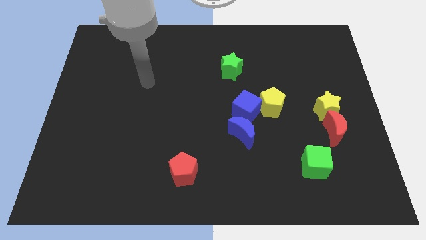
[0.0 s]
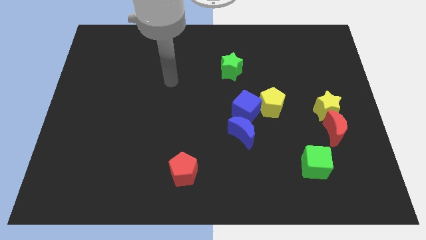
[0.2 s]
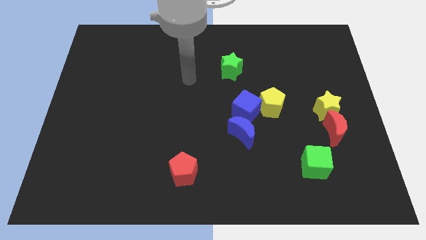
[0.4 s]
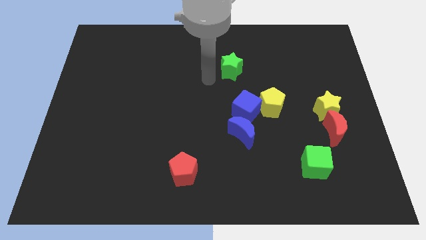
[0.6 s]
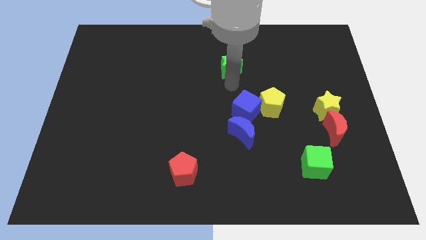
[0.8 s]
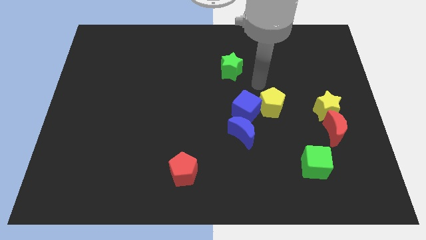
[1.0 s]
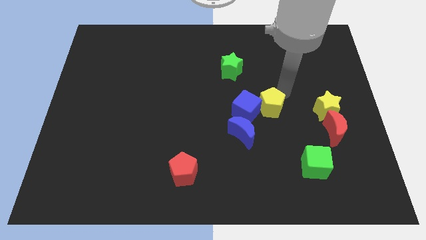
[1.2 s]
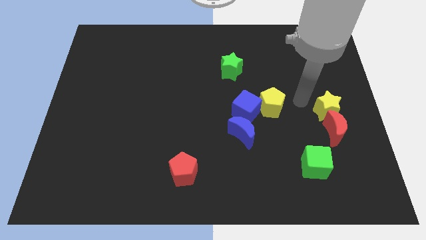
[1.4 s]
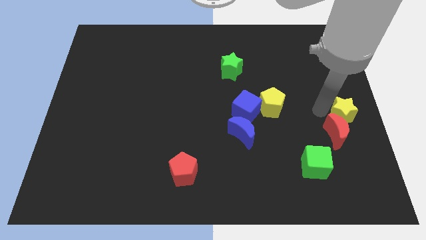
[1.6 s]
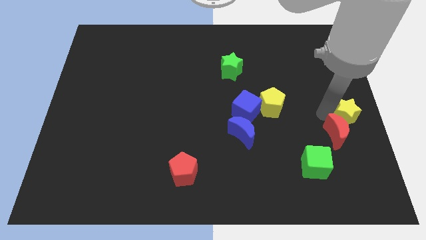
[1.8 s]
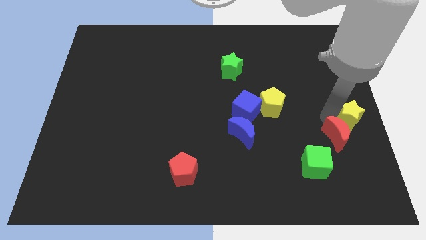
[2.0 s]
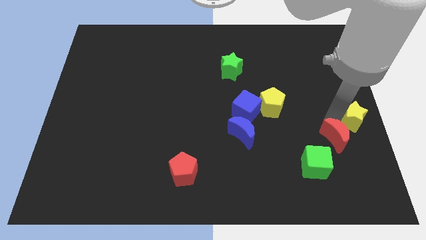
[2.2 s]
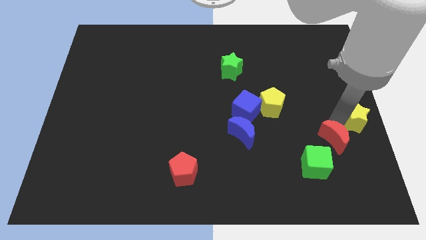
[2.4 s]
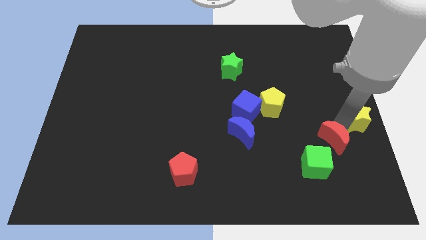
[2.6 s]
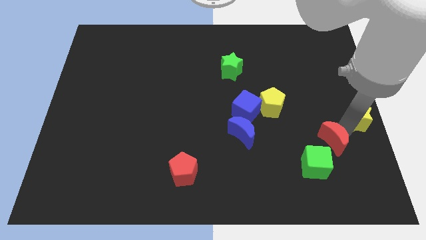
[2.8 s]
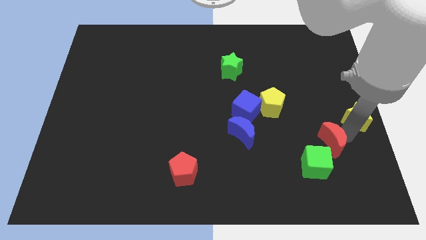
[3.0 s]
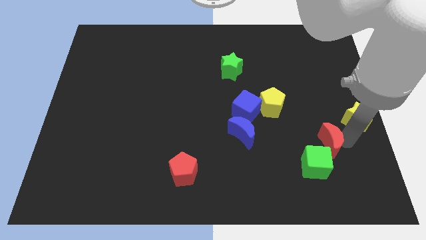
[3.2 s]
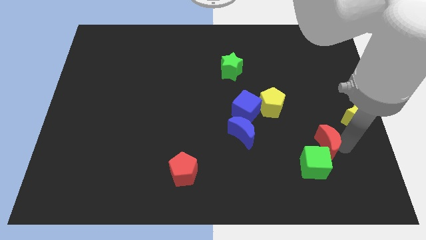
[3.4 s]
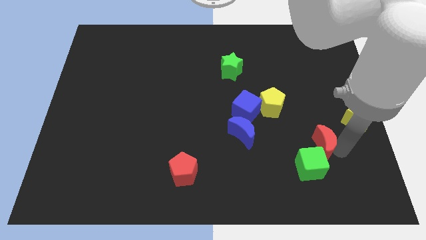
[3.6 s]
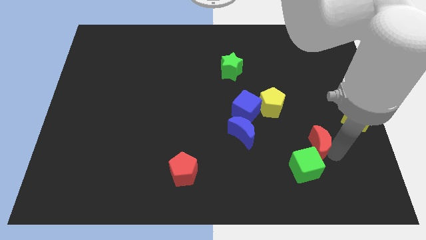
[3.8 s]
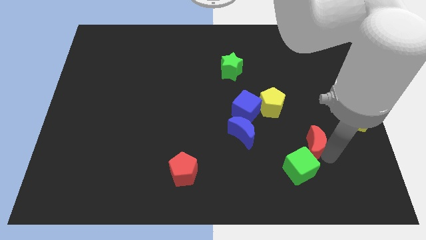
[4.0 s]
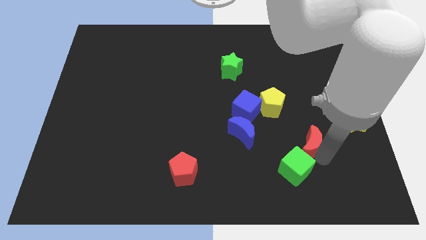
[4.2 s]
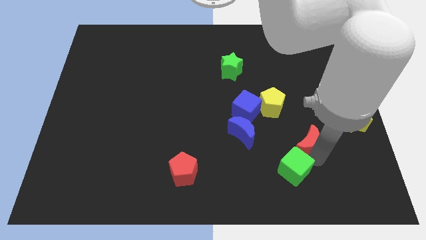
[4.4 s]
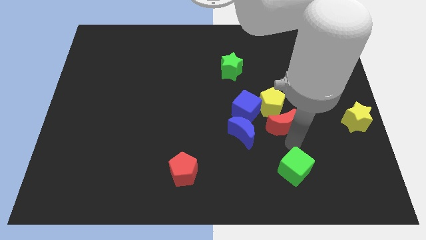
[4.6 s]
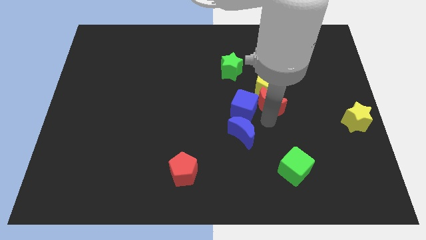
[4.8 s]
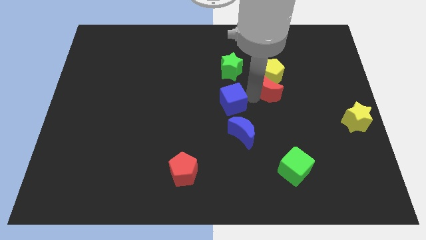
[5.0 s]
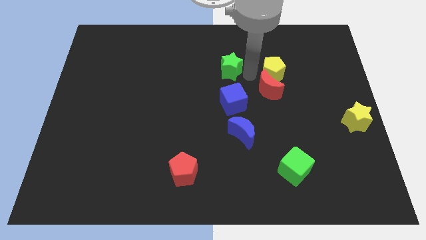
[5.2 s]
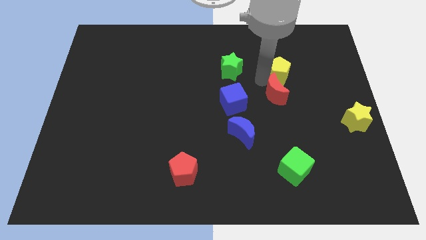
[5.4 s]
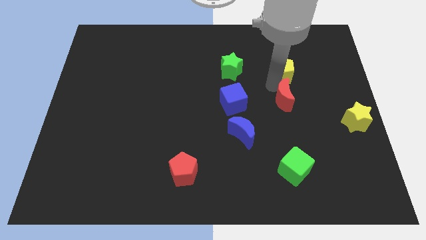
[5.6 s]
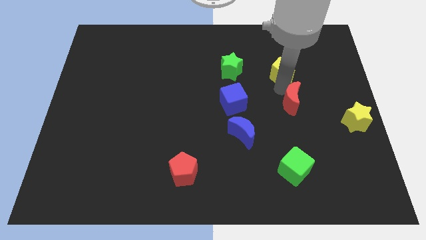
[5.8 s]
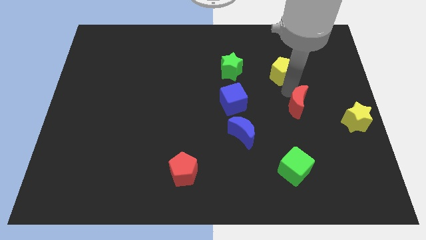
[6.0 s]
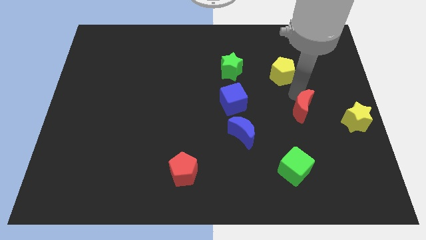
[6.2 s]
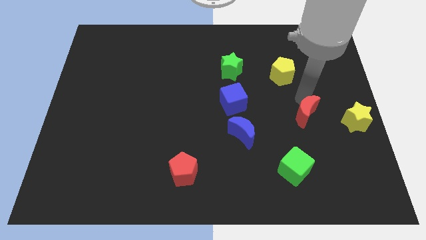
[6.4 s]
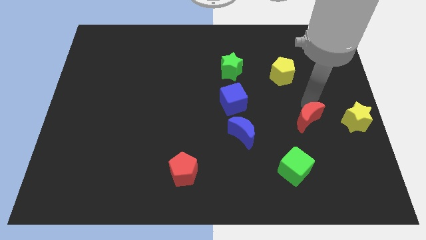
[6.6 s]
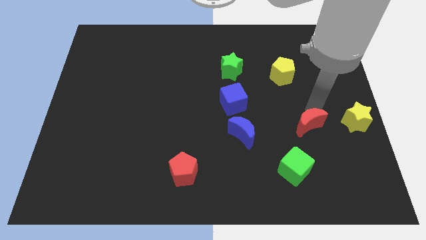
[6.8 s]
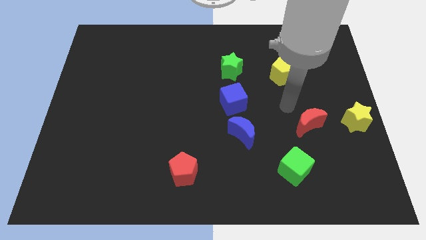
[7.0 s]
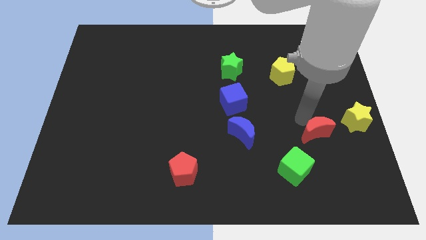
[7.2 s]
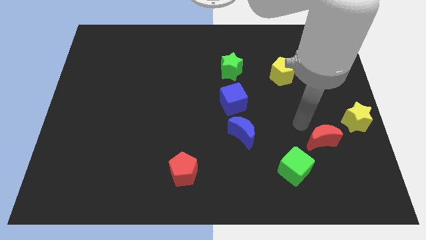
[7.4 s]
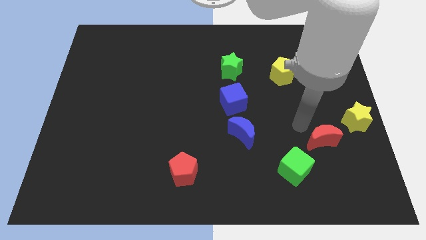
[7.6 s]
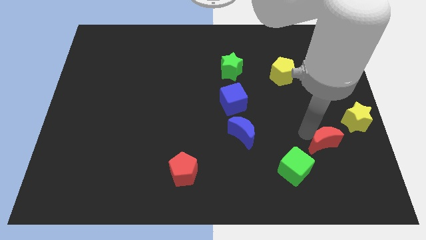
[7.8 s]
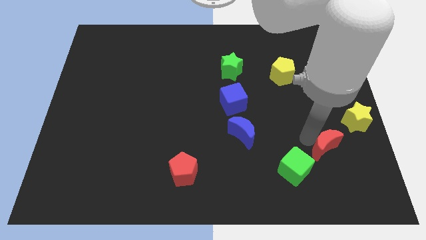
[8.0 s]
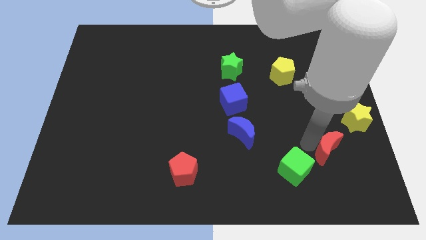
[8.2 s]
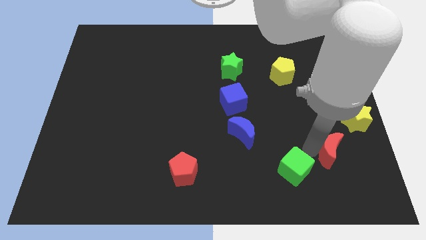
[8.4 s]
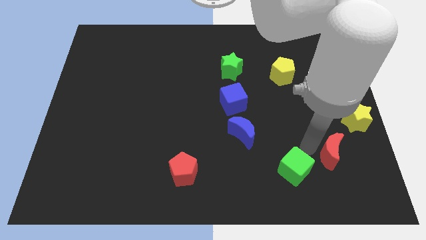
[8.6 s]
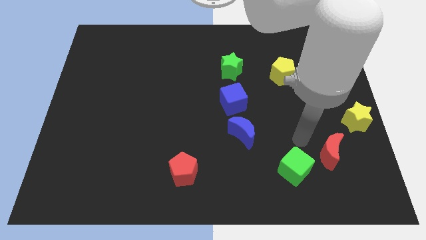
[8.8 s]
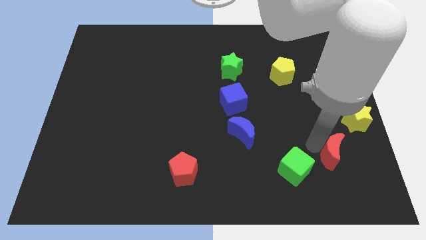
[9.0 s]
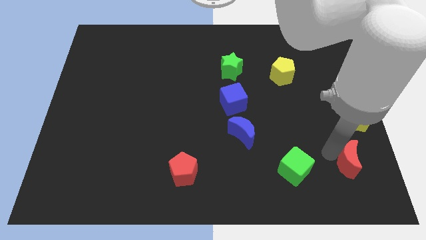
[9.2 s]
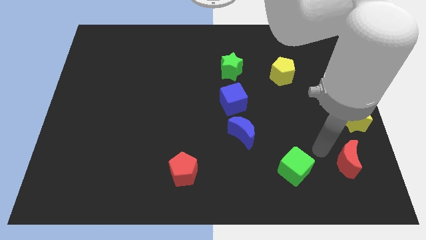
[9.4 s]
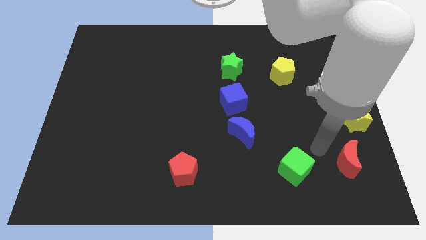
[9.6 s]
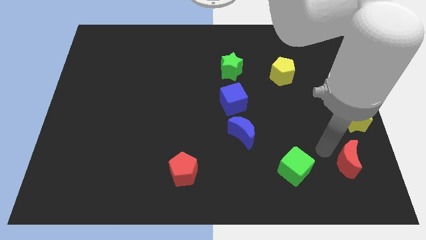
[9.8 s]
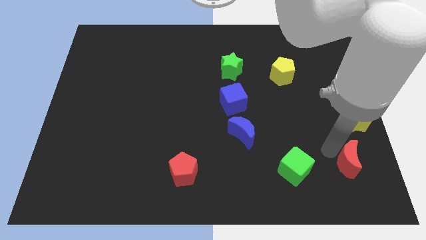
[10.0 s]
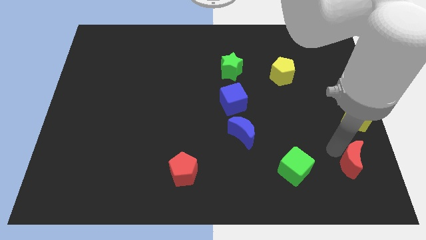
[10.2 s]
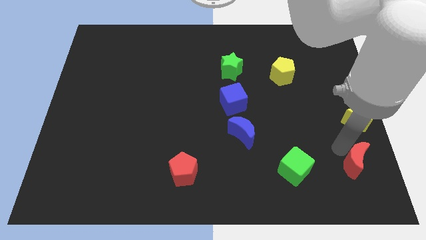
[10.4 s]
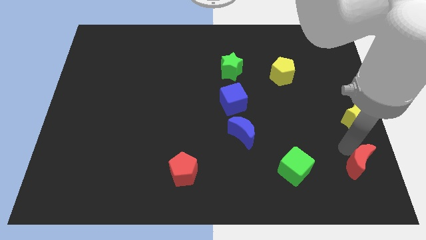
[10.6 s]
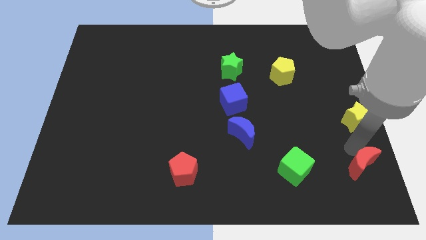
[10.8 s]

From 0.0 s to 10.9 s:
slide the red moon to the bottom right

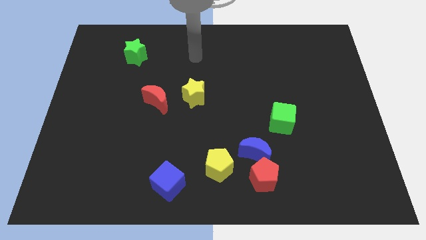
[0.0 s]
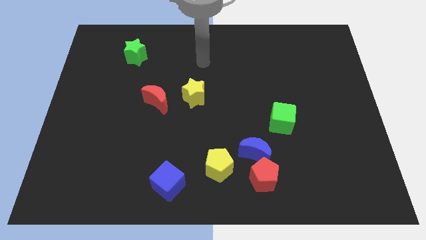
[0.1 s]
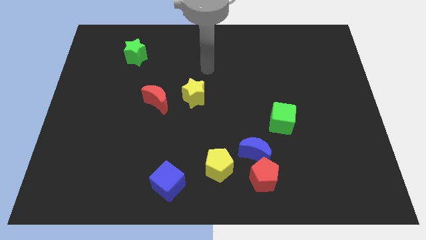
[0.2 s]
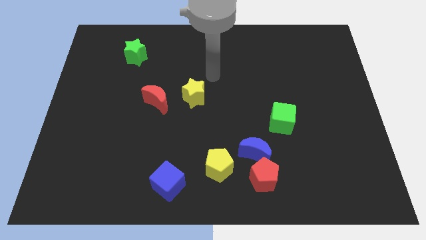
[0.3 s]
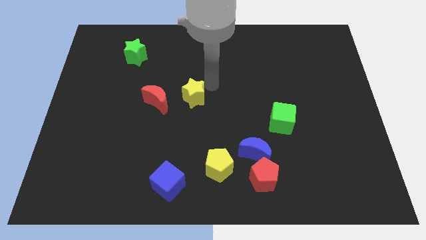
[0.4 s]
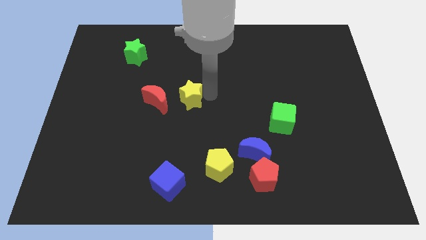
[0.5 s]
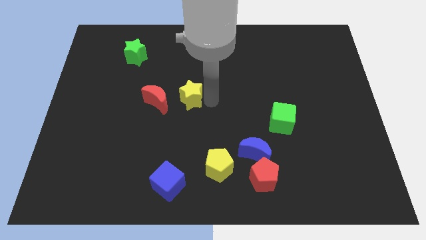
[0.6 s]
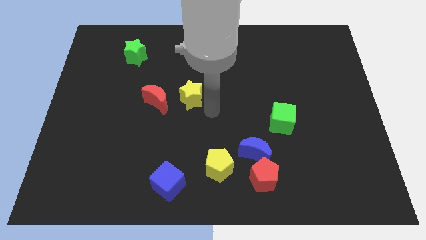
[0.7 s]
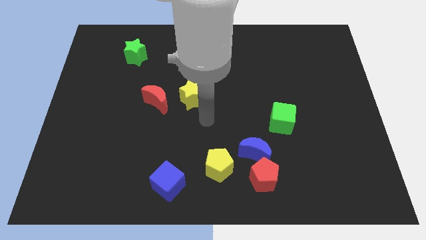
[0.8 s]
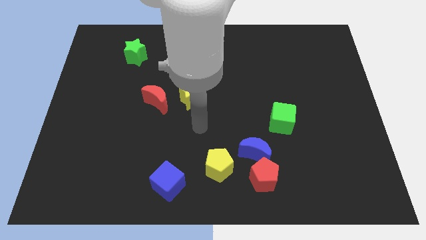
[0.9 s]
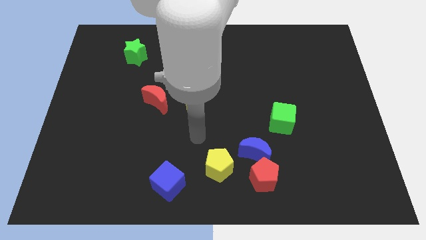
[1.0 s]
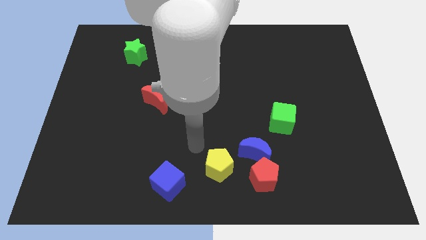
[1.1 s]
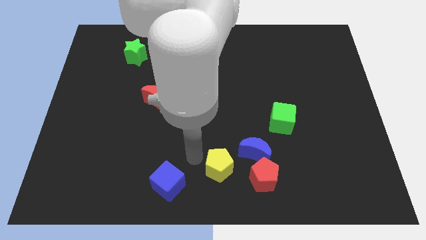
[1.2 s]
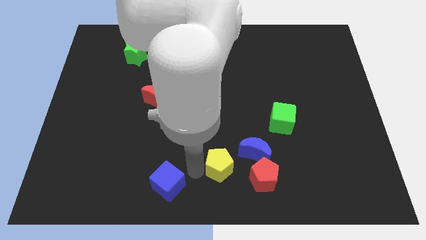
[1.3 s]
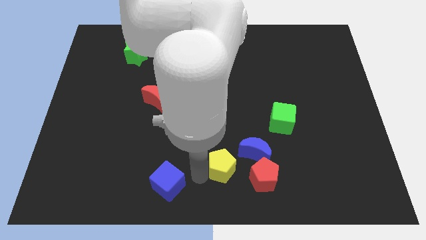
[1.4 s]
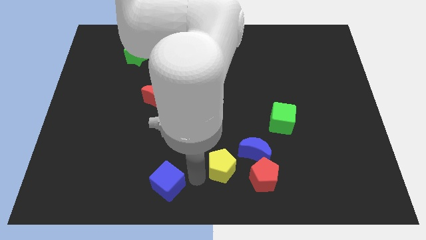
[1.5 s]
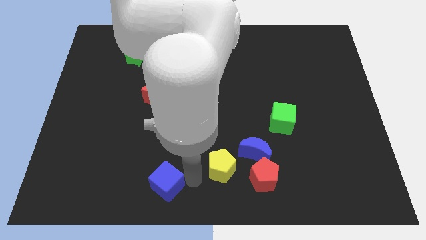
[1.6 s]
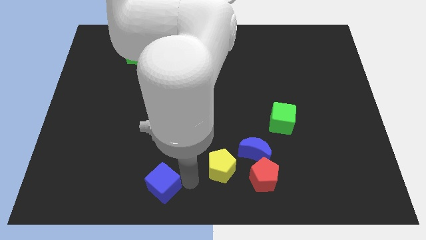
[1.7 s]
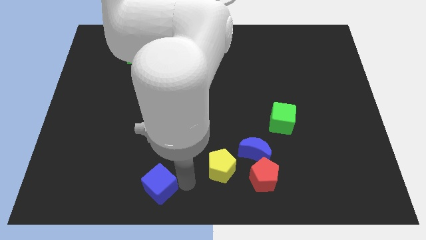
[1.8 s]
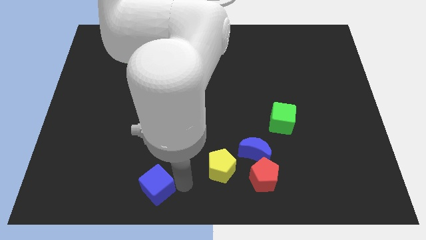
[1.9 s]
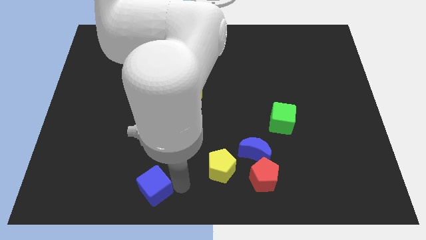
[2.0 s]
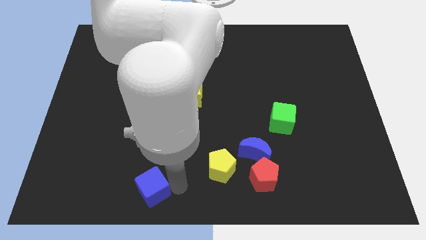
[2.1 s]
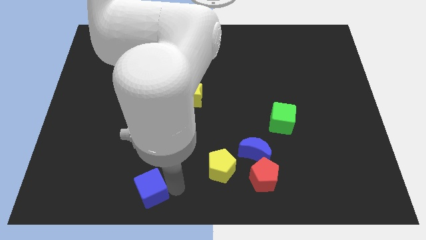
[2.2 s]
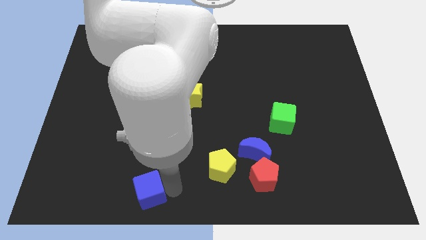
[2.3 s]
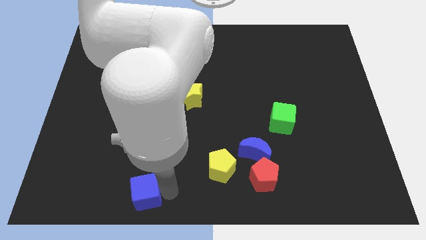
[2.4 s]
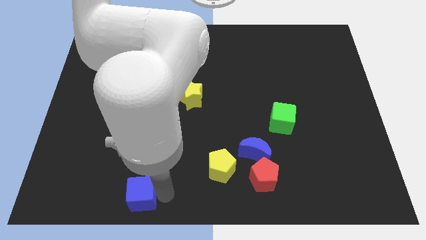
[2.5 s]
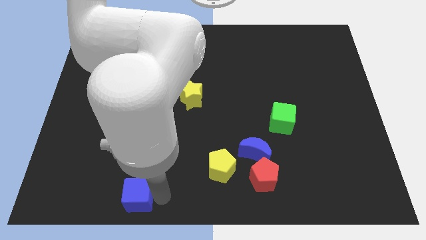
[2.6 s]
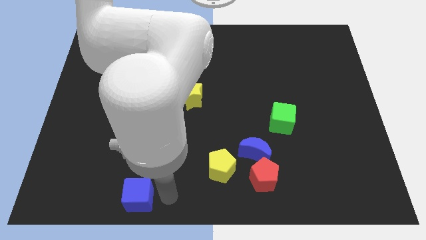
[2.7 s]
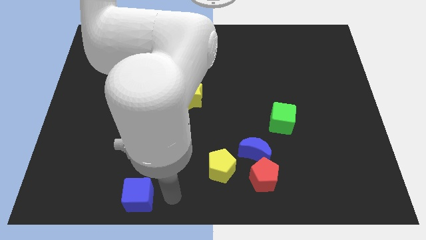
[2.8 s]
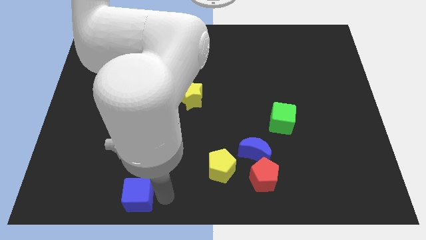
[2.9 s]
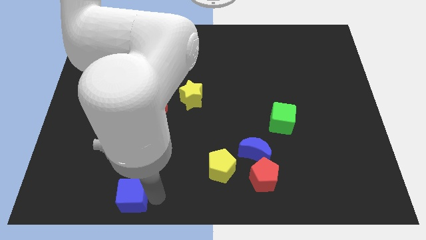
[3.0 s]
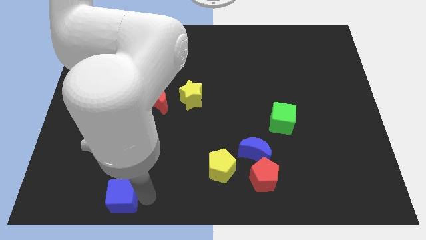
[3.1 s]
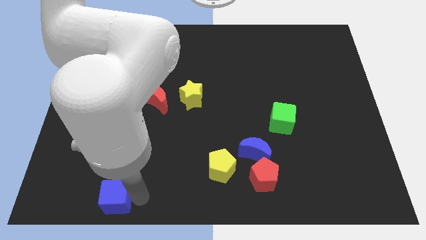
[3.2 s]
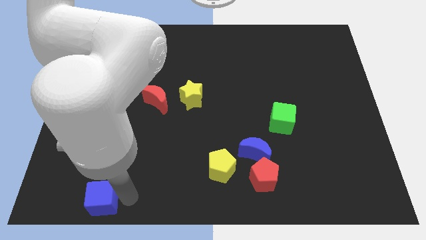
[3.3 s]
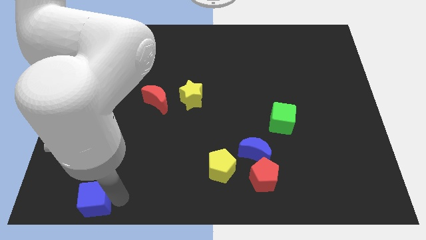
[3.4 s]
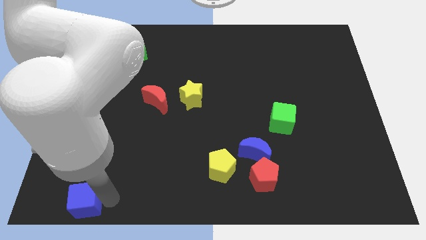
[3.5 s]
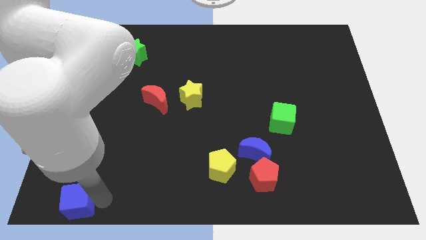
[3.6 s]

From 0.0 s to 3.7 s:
slide the blue cube to the bottom left of the board
